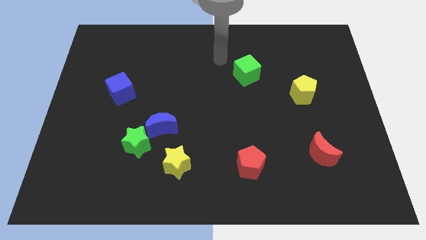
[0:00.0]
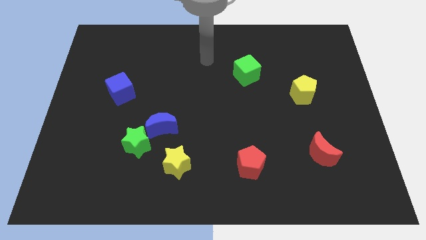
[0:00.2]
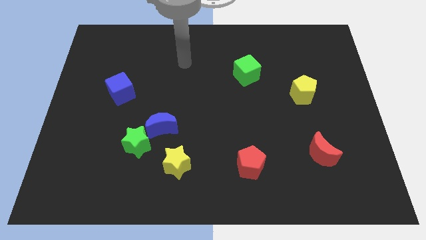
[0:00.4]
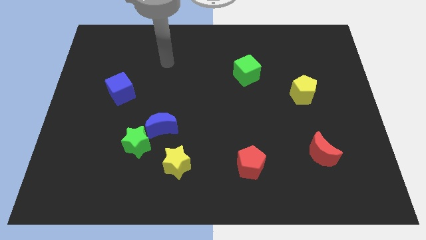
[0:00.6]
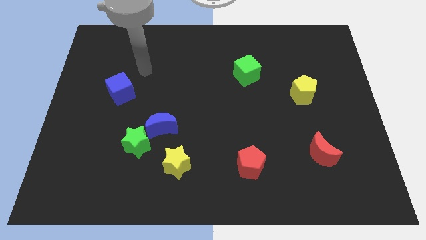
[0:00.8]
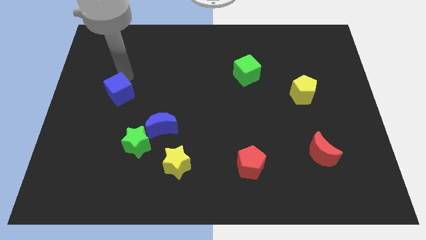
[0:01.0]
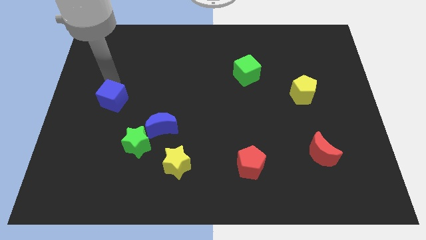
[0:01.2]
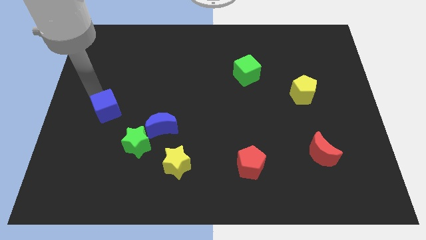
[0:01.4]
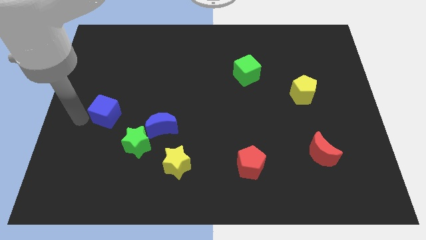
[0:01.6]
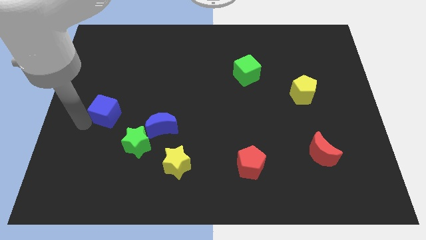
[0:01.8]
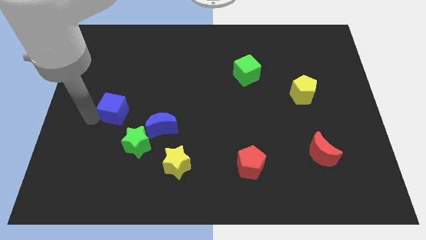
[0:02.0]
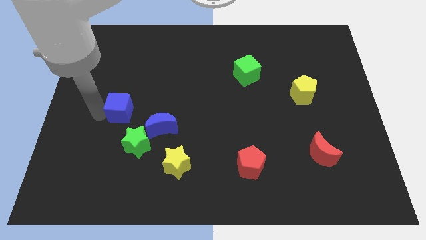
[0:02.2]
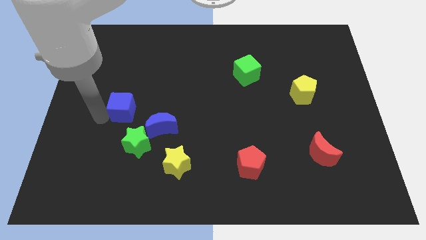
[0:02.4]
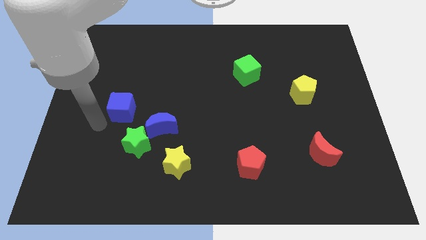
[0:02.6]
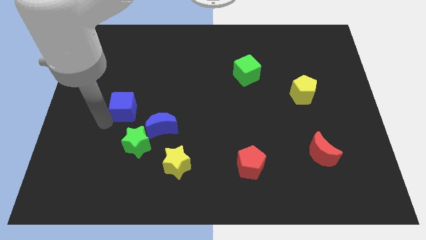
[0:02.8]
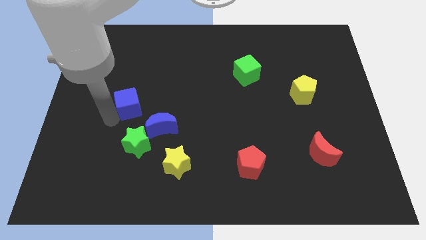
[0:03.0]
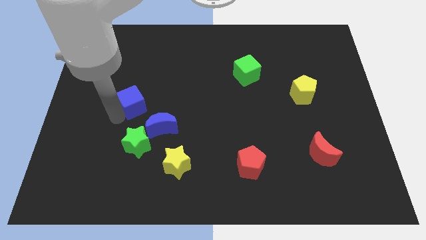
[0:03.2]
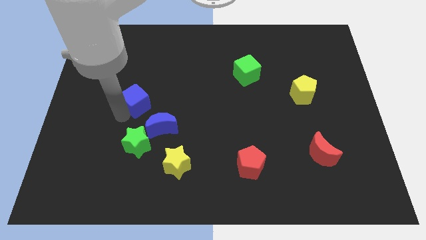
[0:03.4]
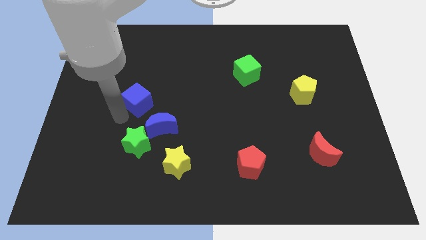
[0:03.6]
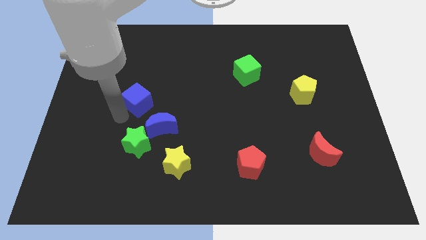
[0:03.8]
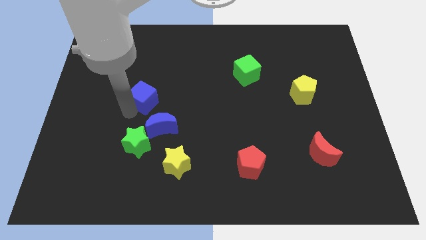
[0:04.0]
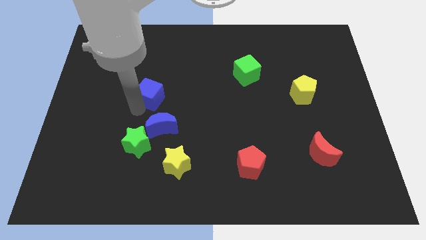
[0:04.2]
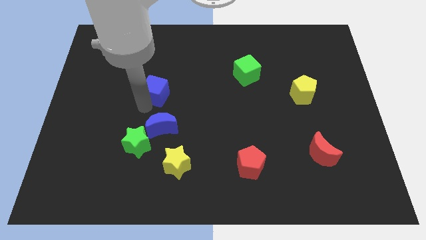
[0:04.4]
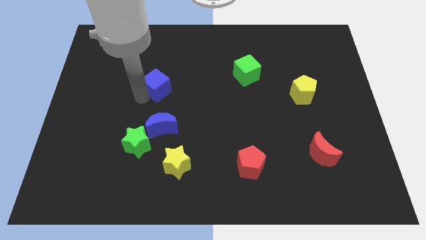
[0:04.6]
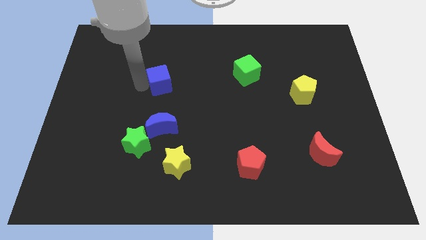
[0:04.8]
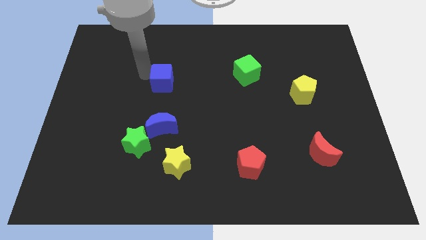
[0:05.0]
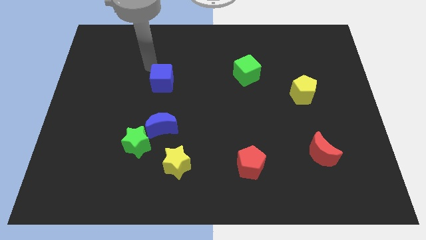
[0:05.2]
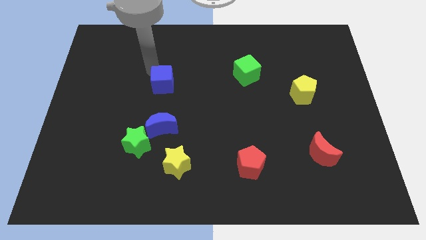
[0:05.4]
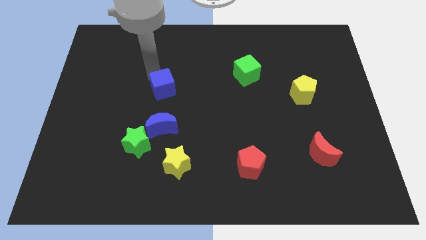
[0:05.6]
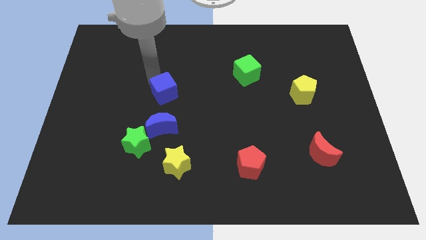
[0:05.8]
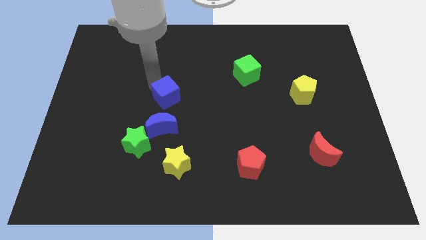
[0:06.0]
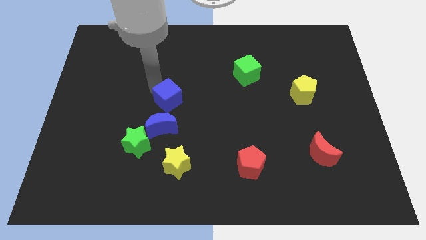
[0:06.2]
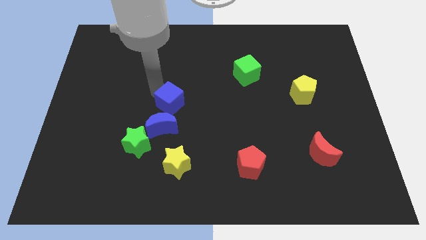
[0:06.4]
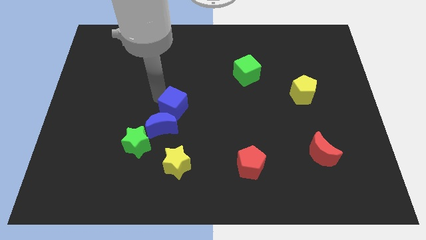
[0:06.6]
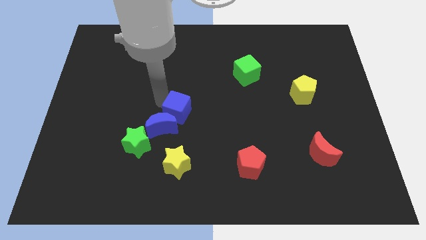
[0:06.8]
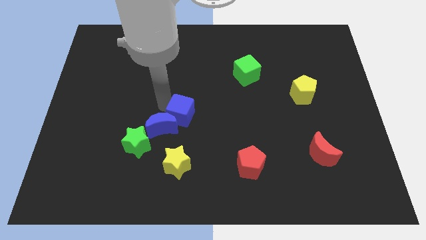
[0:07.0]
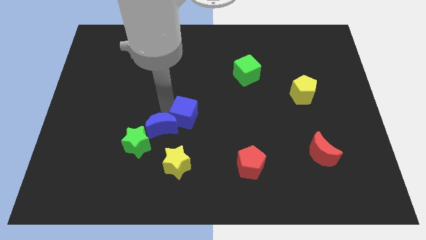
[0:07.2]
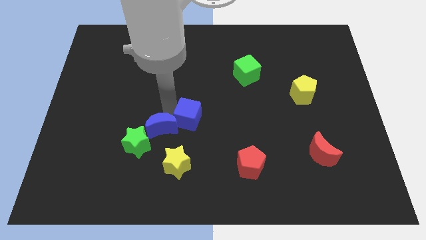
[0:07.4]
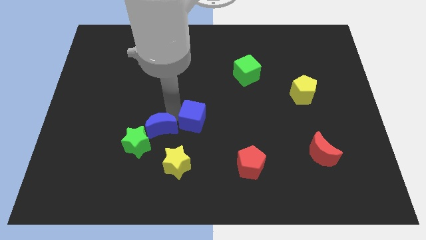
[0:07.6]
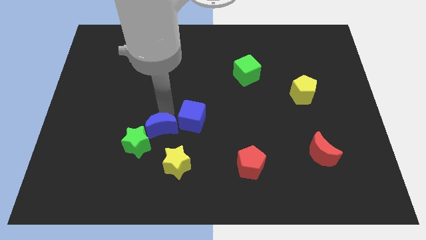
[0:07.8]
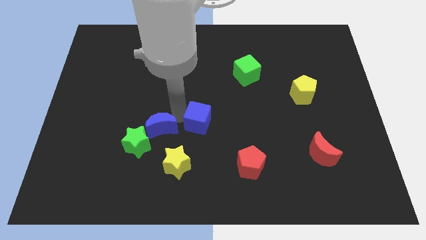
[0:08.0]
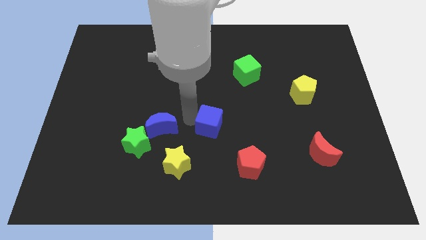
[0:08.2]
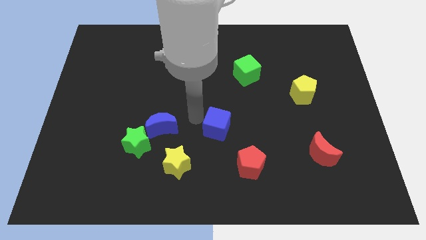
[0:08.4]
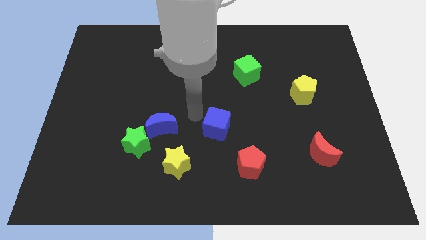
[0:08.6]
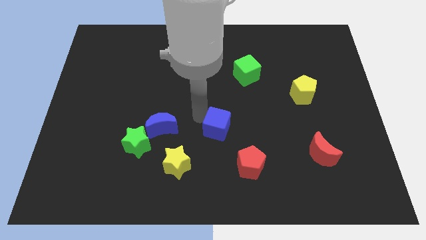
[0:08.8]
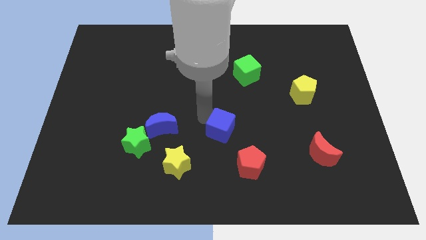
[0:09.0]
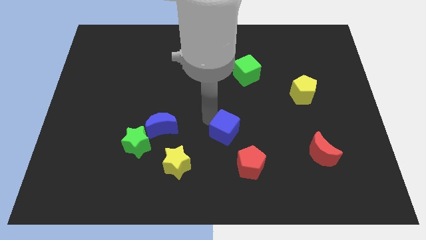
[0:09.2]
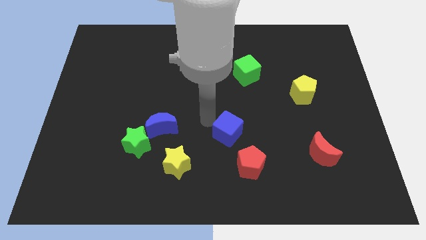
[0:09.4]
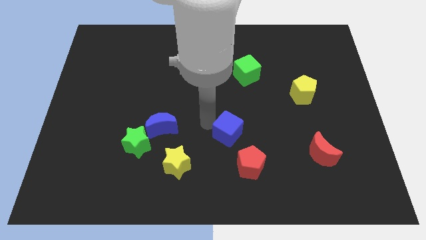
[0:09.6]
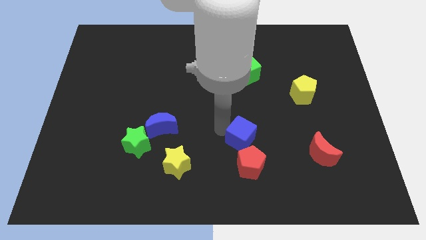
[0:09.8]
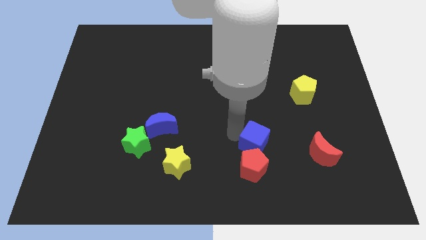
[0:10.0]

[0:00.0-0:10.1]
put the blue cube just left of the red moon

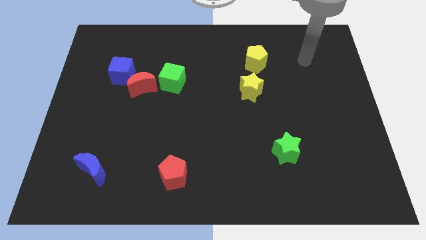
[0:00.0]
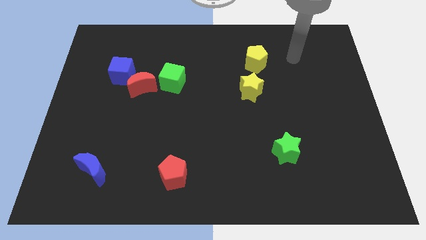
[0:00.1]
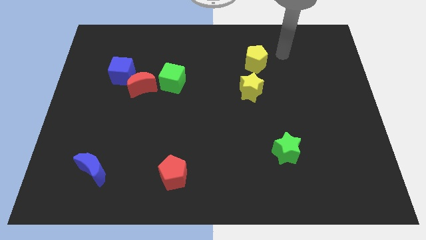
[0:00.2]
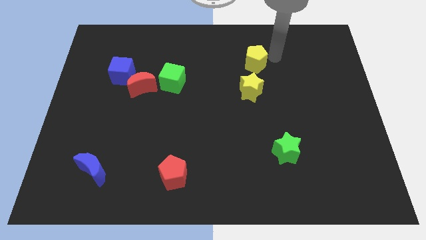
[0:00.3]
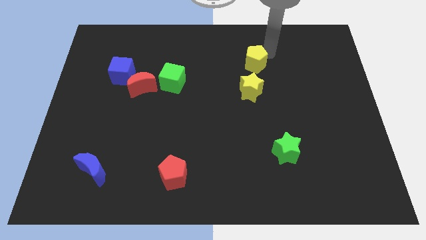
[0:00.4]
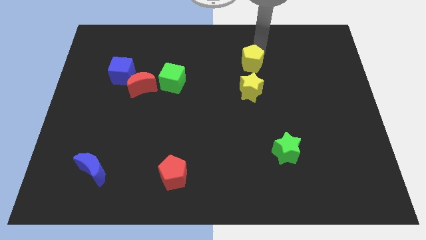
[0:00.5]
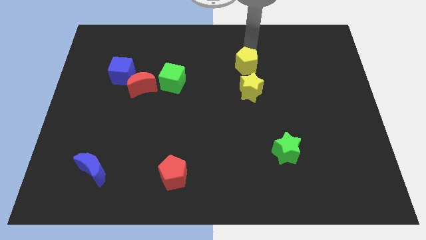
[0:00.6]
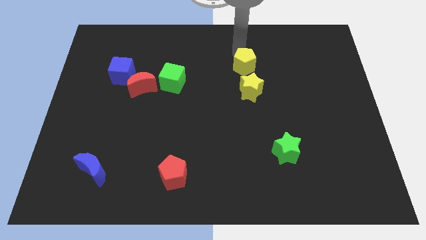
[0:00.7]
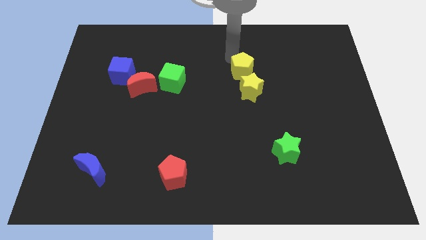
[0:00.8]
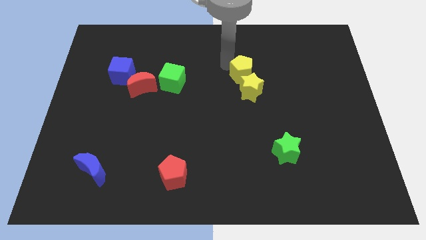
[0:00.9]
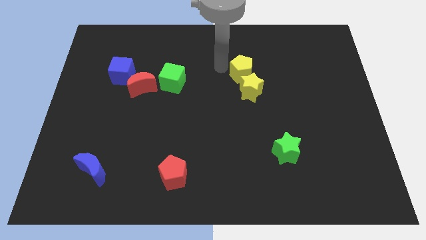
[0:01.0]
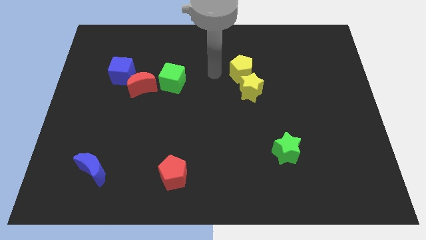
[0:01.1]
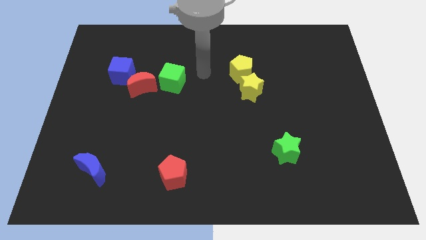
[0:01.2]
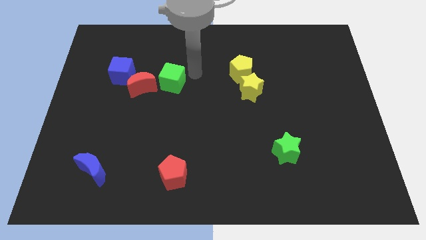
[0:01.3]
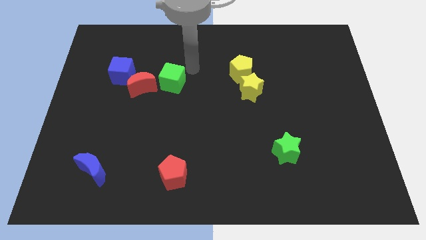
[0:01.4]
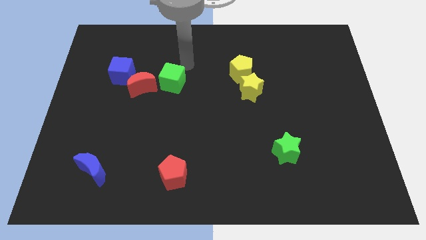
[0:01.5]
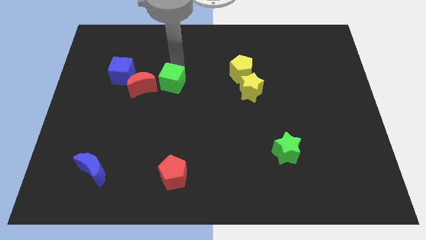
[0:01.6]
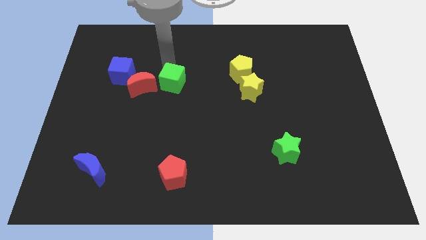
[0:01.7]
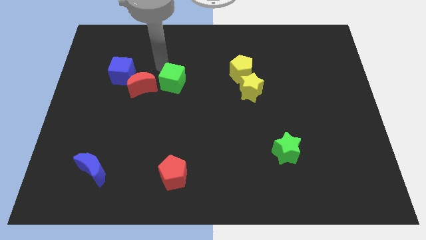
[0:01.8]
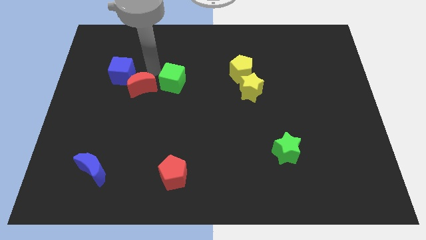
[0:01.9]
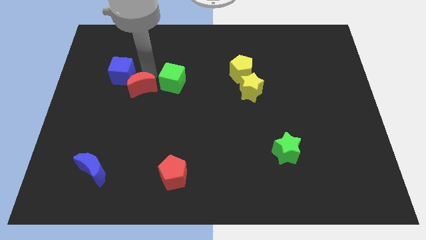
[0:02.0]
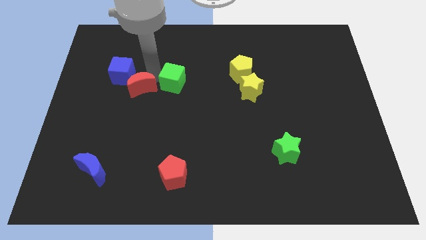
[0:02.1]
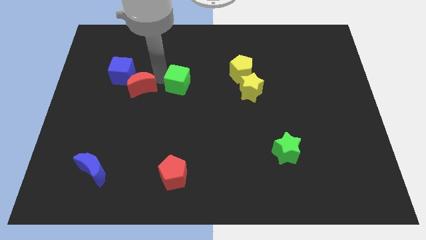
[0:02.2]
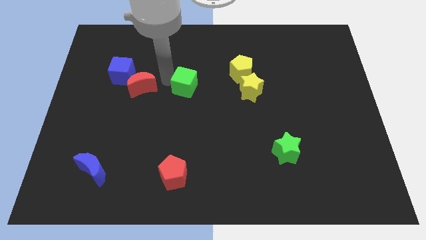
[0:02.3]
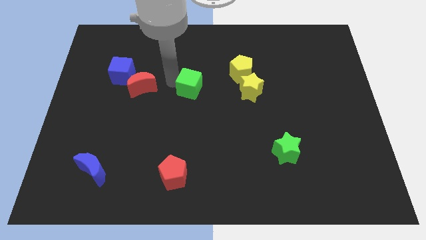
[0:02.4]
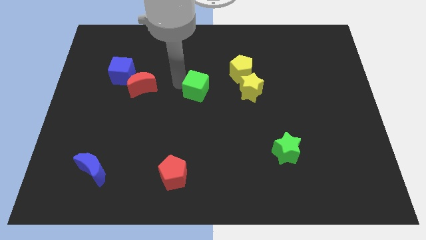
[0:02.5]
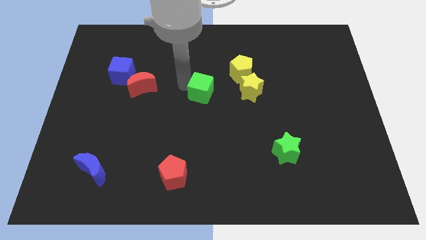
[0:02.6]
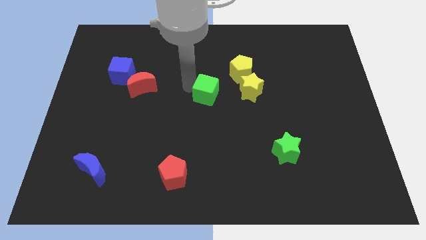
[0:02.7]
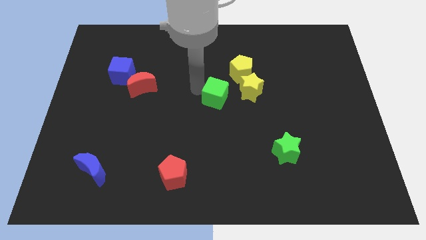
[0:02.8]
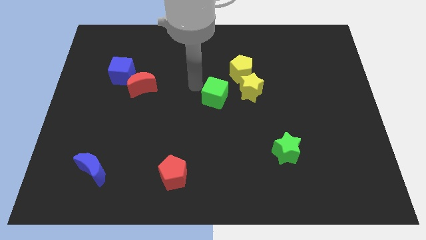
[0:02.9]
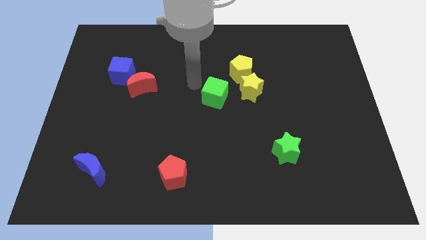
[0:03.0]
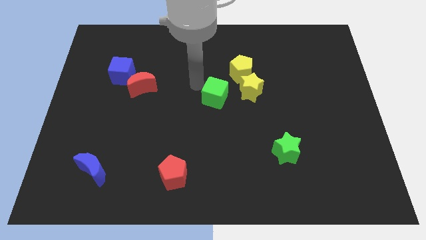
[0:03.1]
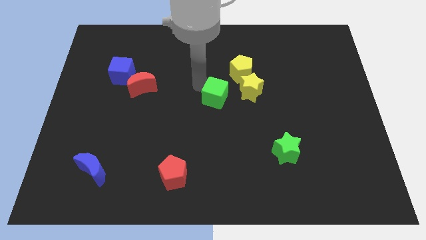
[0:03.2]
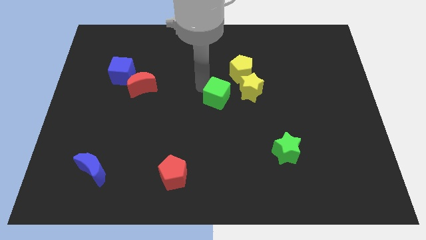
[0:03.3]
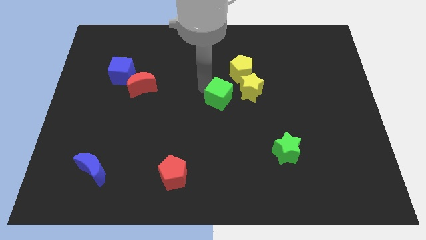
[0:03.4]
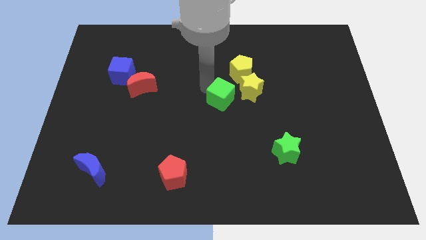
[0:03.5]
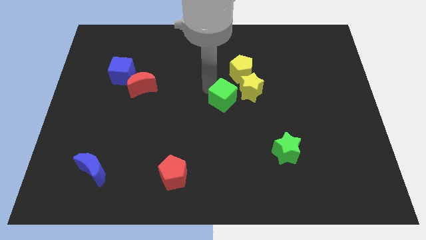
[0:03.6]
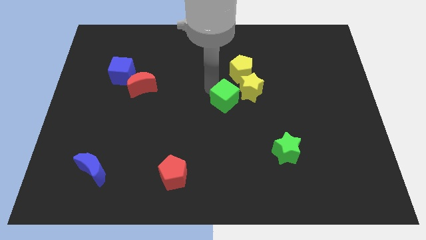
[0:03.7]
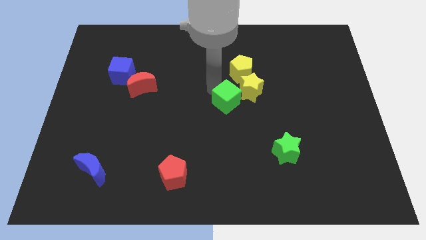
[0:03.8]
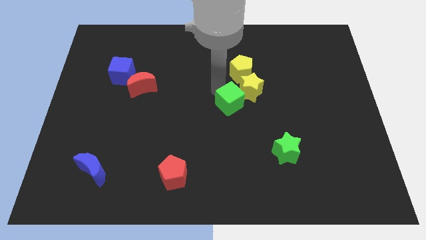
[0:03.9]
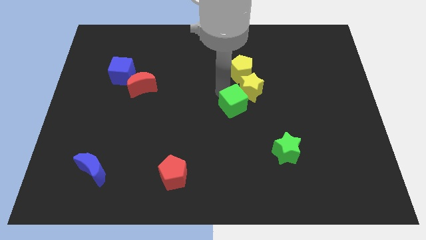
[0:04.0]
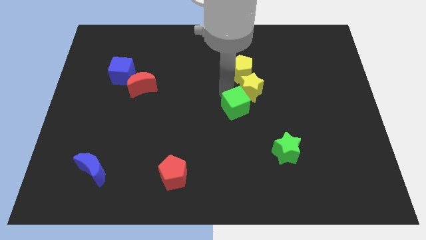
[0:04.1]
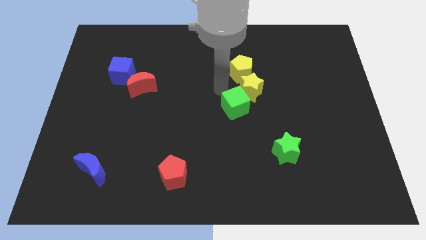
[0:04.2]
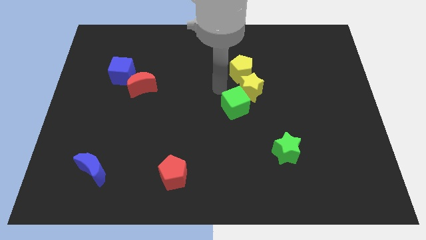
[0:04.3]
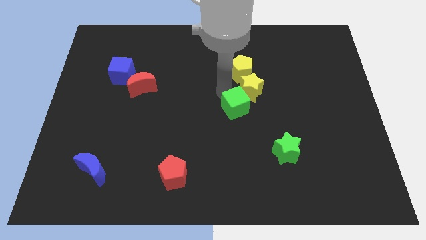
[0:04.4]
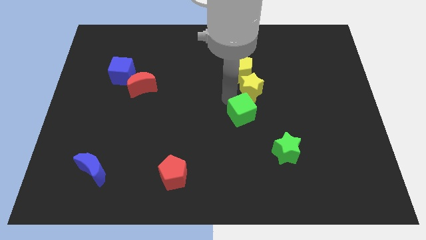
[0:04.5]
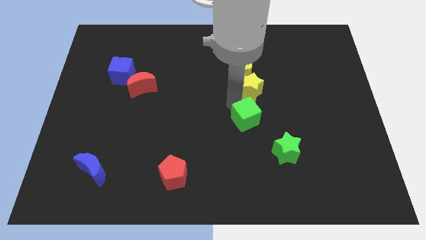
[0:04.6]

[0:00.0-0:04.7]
push the green cube to the top left of the green star
